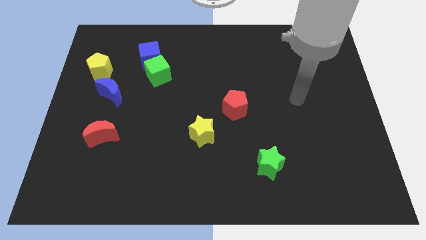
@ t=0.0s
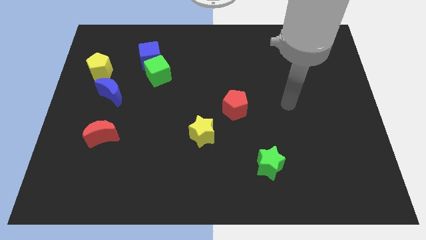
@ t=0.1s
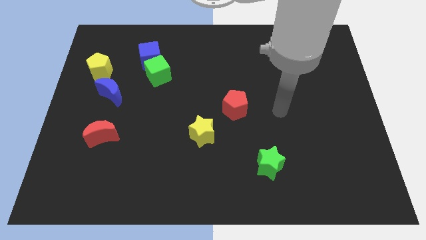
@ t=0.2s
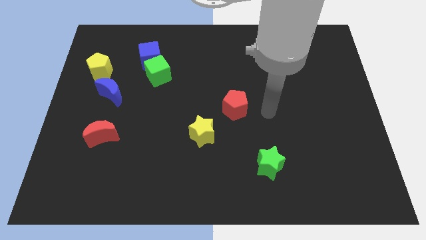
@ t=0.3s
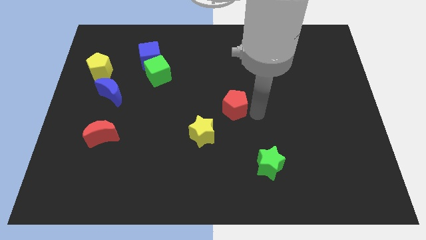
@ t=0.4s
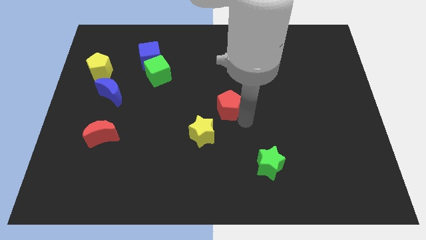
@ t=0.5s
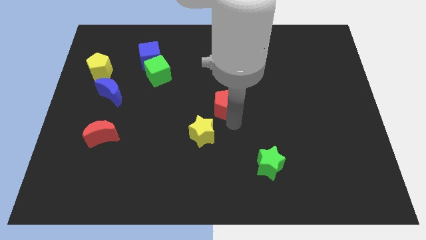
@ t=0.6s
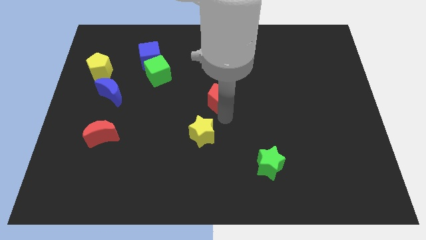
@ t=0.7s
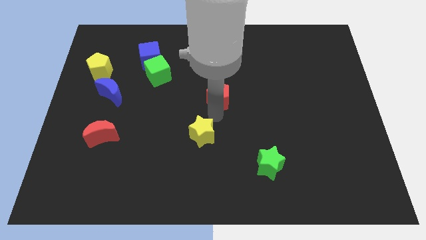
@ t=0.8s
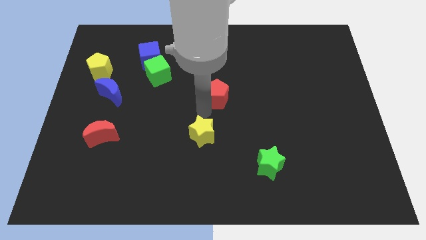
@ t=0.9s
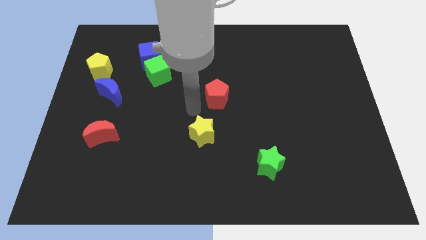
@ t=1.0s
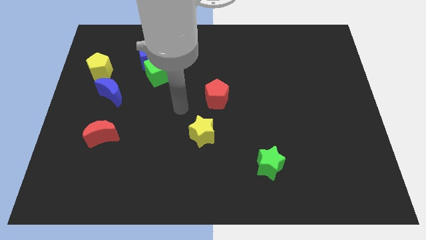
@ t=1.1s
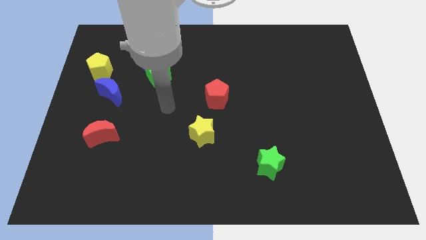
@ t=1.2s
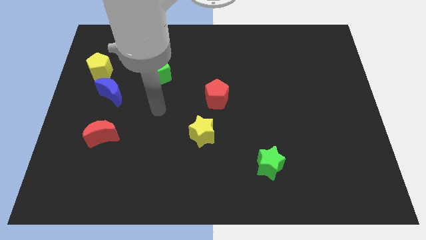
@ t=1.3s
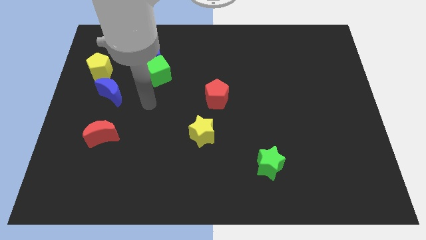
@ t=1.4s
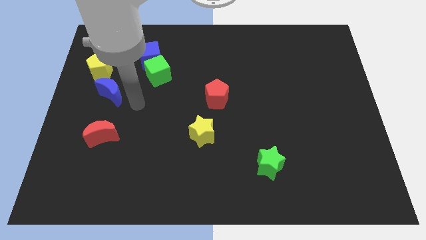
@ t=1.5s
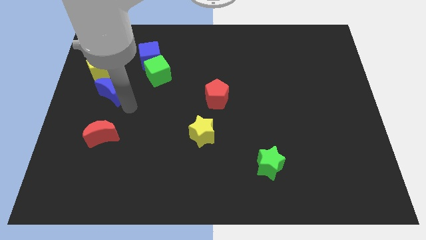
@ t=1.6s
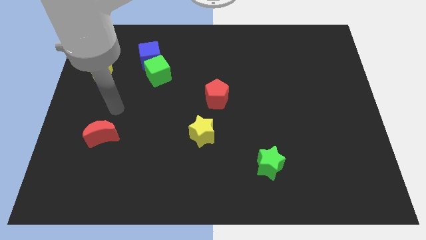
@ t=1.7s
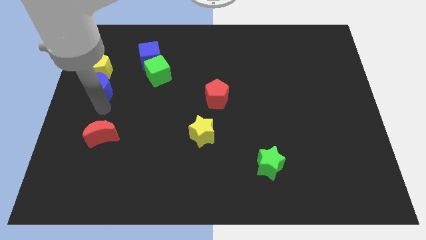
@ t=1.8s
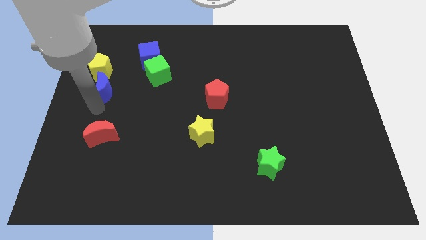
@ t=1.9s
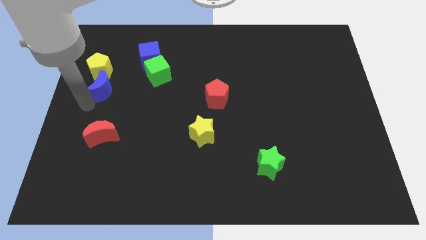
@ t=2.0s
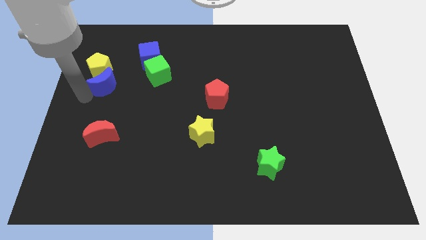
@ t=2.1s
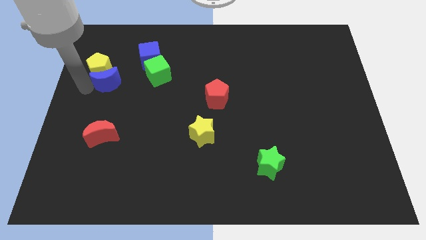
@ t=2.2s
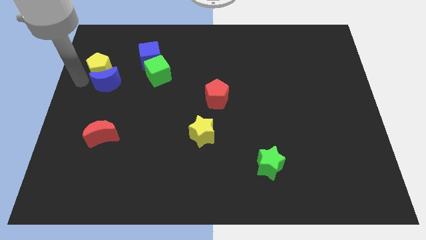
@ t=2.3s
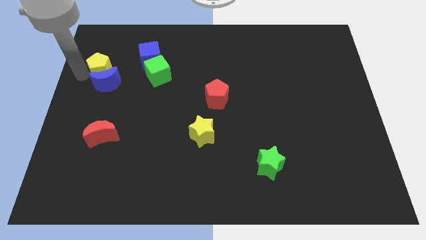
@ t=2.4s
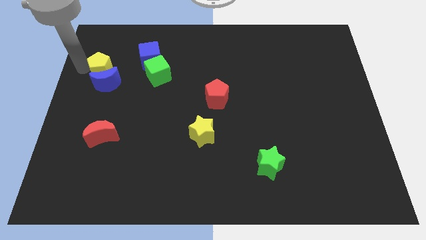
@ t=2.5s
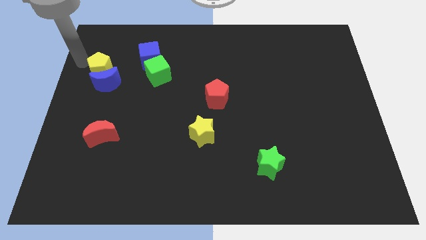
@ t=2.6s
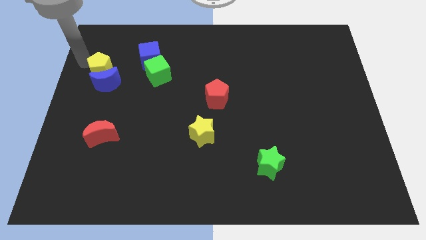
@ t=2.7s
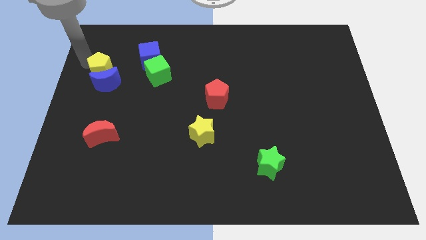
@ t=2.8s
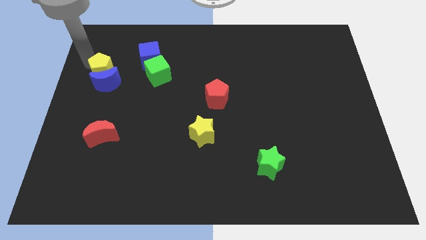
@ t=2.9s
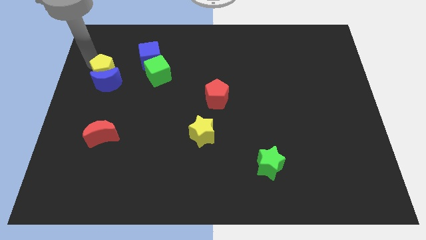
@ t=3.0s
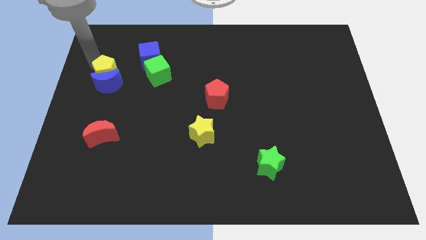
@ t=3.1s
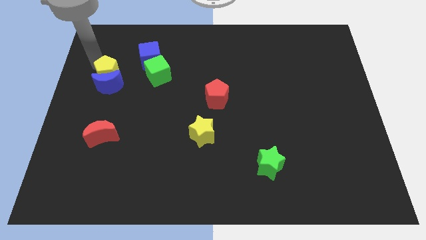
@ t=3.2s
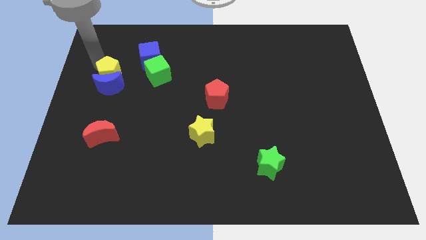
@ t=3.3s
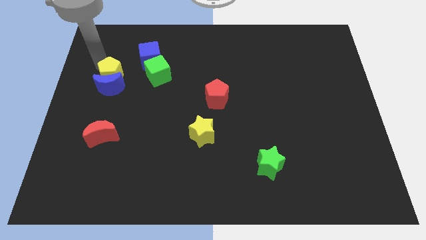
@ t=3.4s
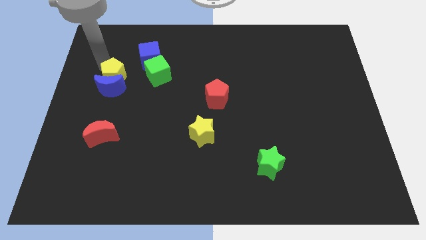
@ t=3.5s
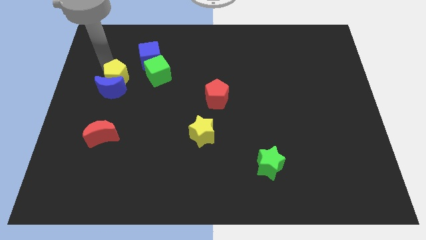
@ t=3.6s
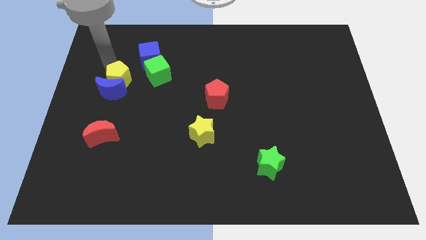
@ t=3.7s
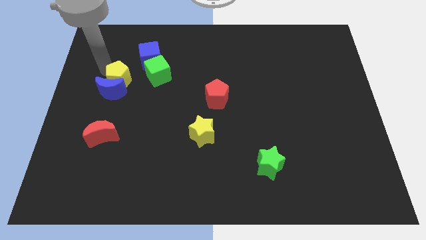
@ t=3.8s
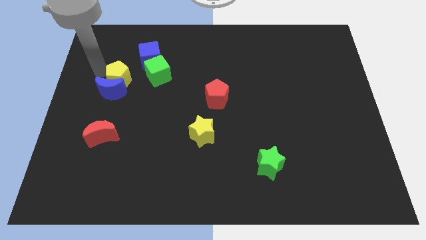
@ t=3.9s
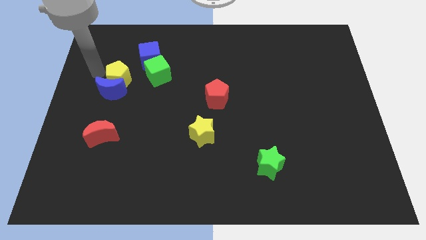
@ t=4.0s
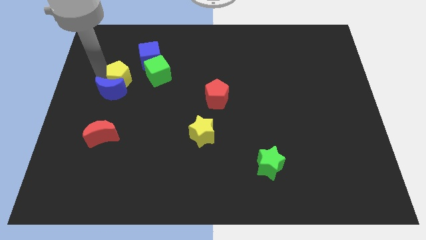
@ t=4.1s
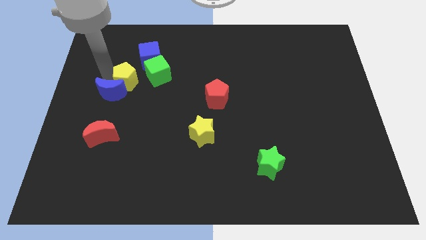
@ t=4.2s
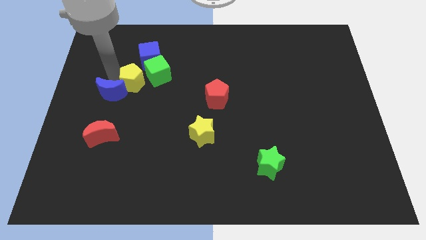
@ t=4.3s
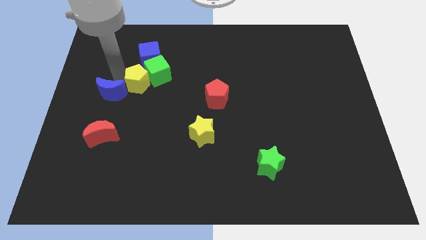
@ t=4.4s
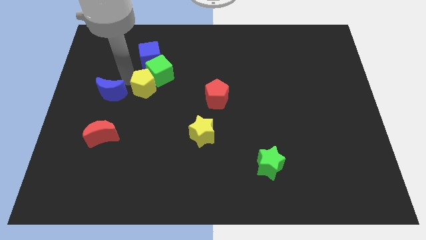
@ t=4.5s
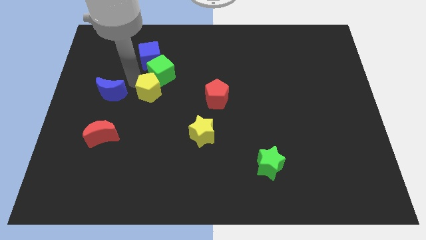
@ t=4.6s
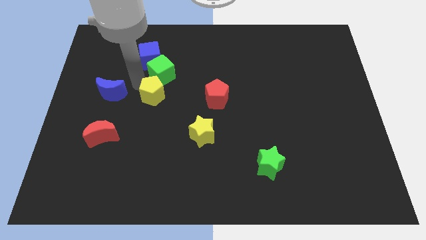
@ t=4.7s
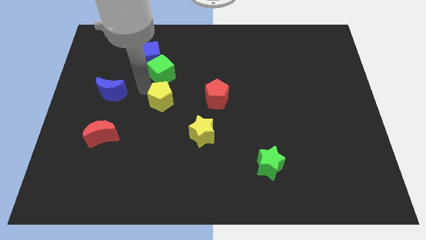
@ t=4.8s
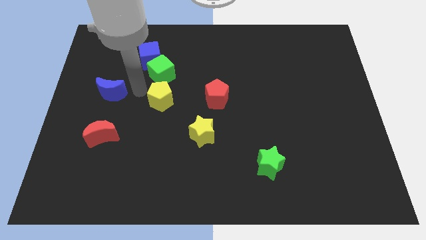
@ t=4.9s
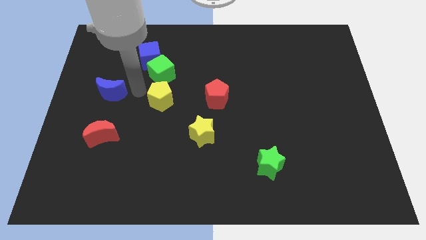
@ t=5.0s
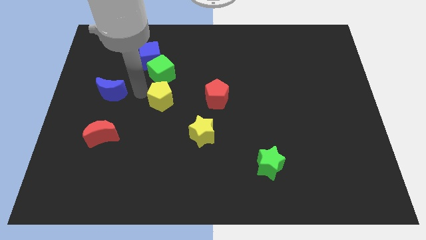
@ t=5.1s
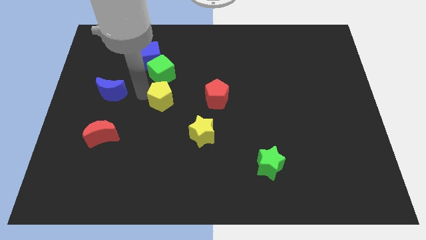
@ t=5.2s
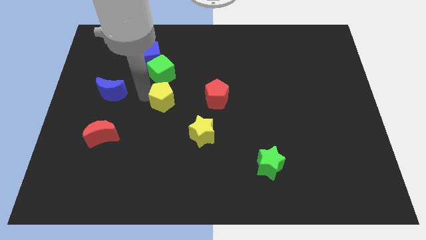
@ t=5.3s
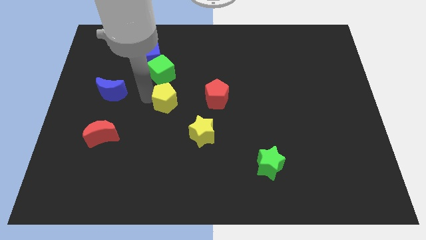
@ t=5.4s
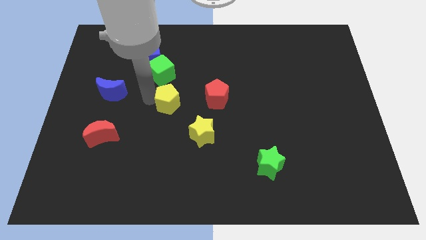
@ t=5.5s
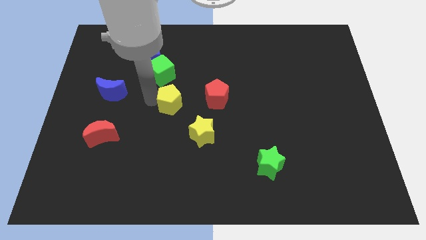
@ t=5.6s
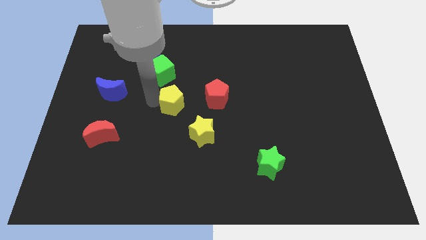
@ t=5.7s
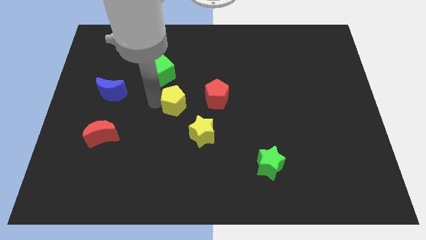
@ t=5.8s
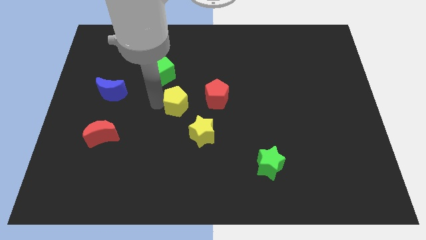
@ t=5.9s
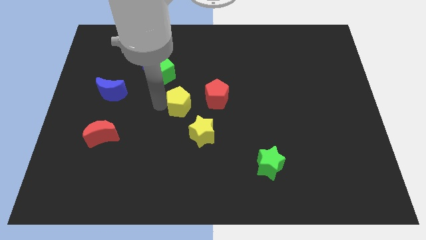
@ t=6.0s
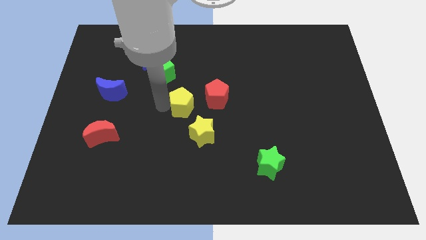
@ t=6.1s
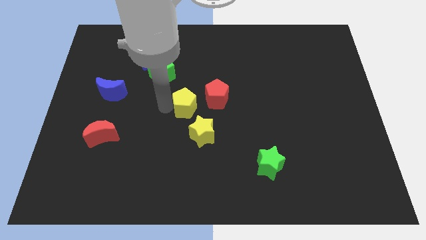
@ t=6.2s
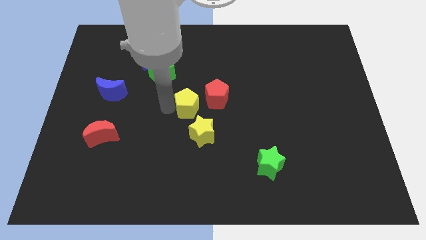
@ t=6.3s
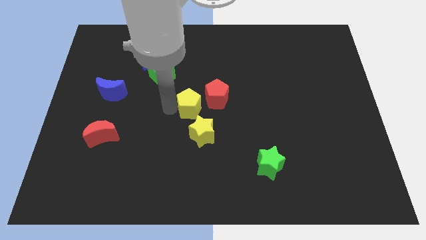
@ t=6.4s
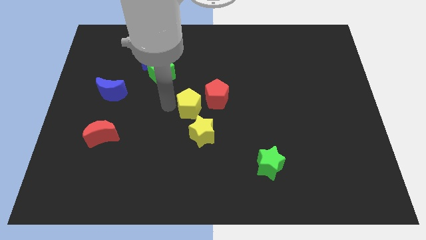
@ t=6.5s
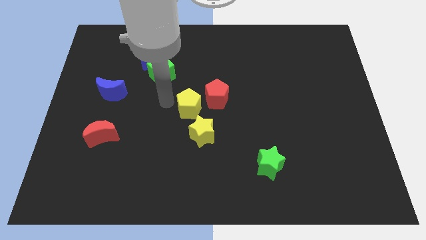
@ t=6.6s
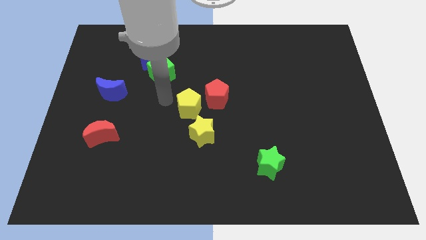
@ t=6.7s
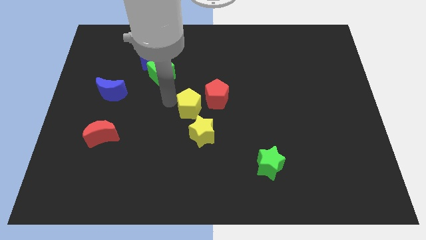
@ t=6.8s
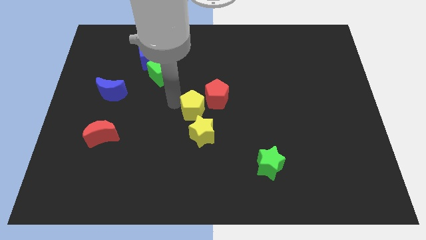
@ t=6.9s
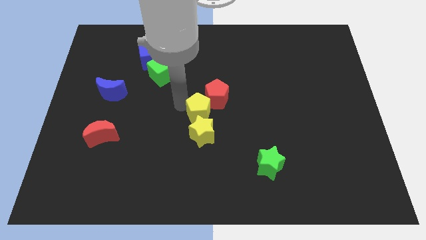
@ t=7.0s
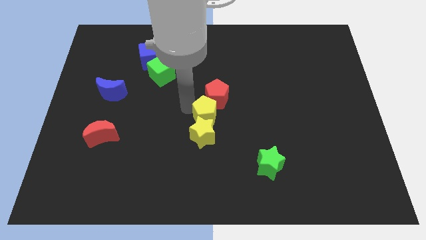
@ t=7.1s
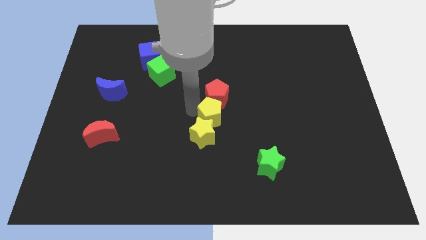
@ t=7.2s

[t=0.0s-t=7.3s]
put the yellow pentagon to the bottom right of the red pentagon
